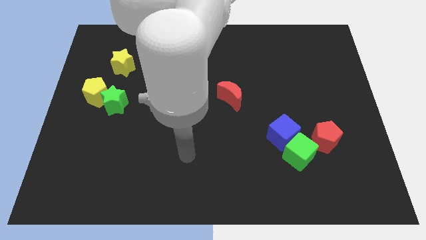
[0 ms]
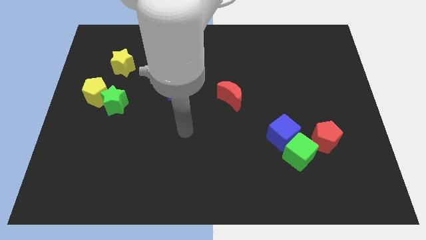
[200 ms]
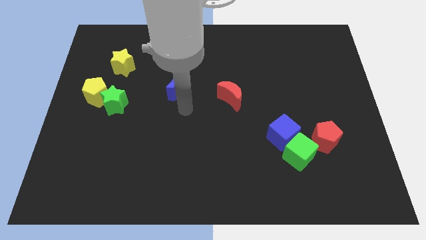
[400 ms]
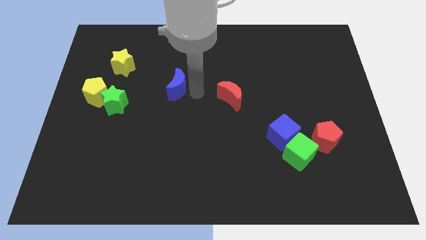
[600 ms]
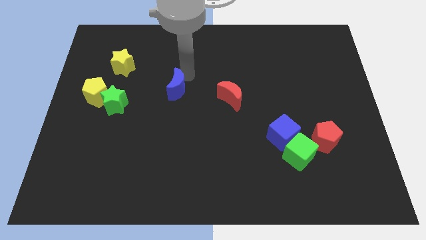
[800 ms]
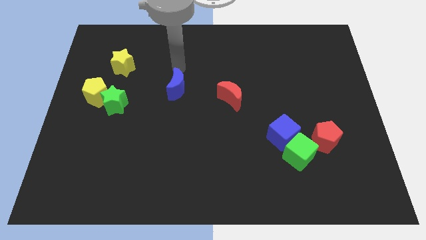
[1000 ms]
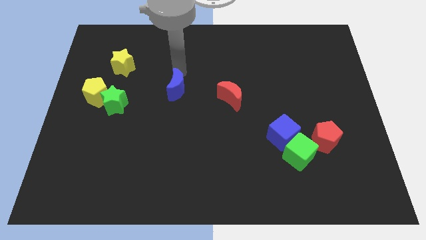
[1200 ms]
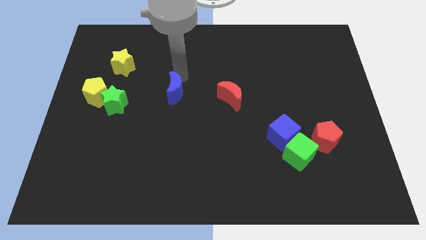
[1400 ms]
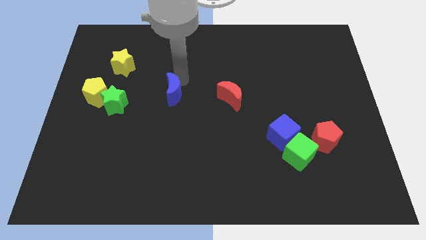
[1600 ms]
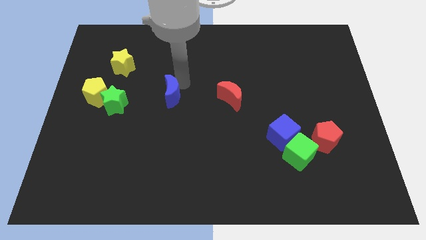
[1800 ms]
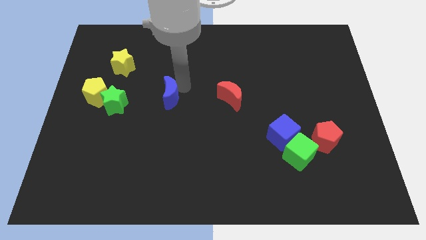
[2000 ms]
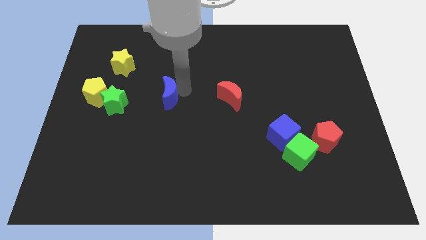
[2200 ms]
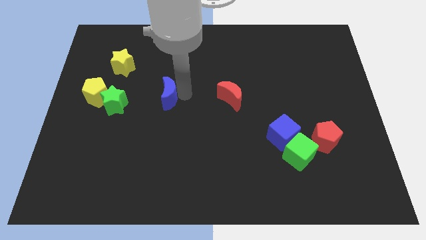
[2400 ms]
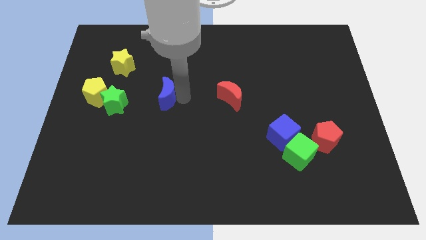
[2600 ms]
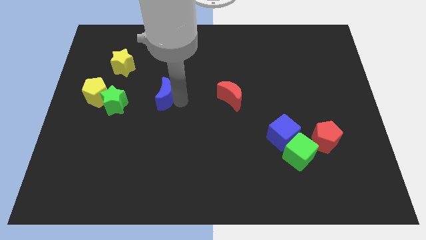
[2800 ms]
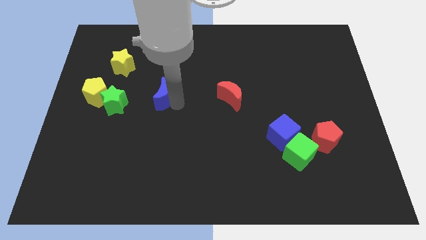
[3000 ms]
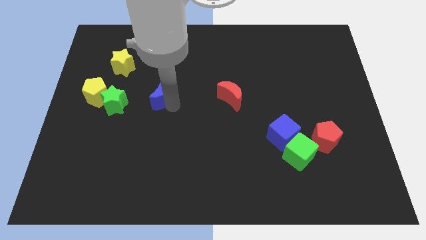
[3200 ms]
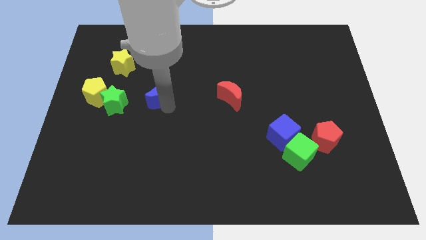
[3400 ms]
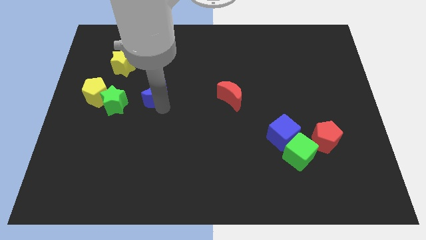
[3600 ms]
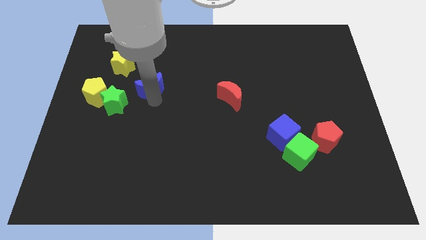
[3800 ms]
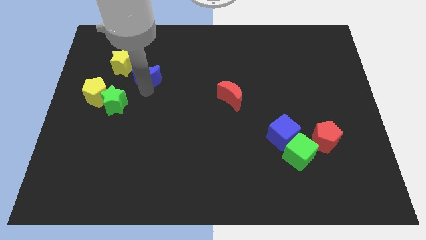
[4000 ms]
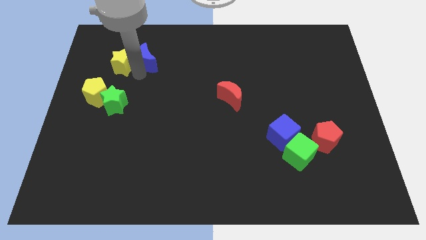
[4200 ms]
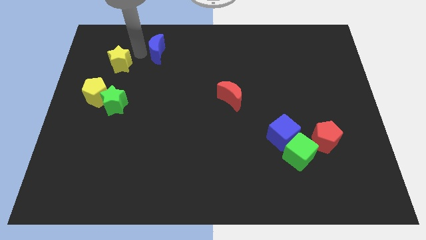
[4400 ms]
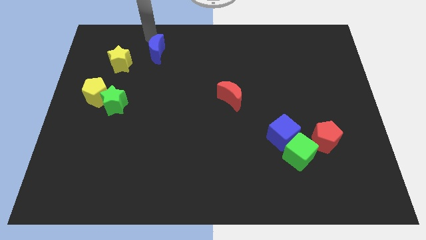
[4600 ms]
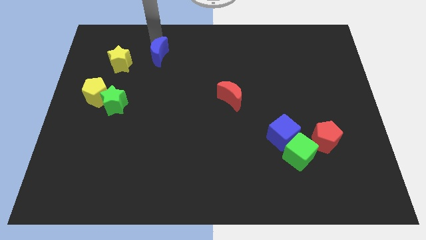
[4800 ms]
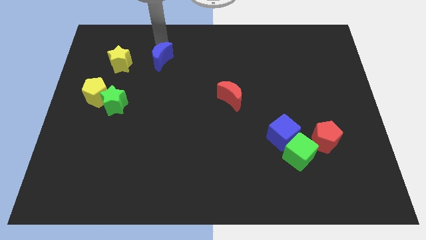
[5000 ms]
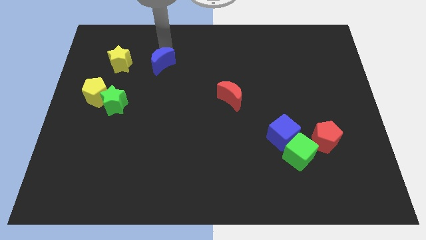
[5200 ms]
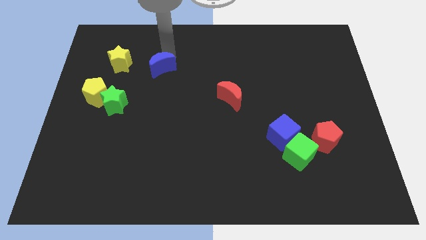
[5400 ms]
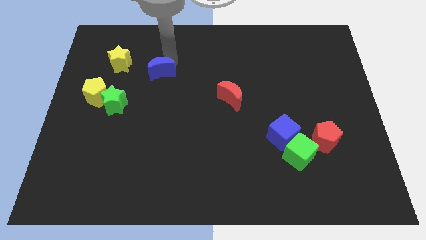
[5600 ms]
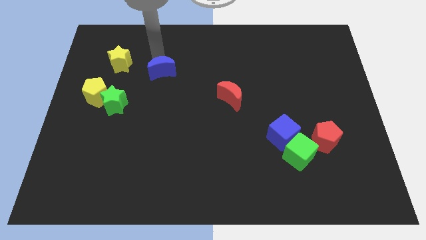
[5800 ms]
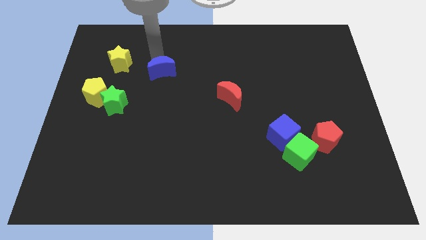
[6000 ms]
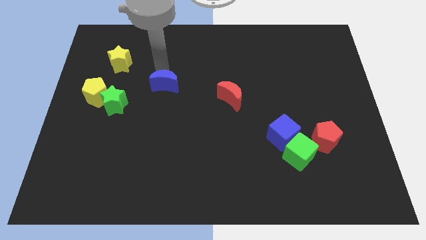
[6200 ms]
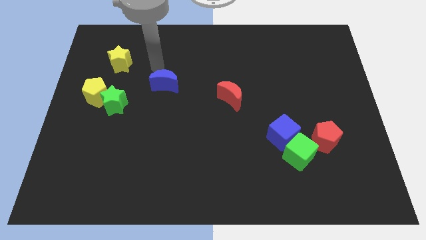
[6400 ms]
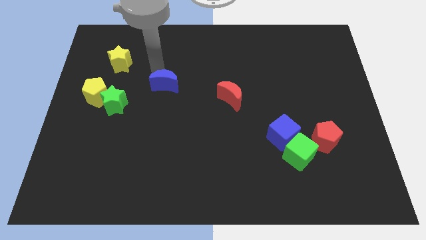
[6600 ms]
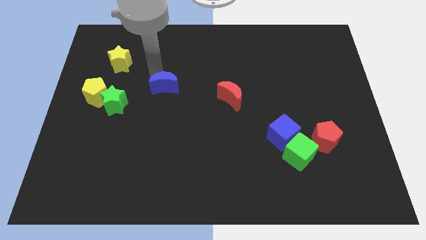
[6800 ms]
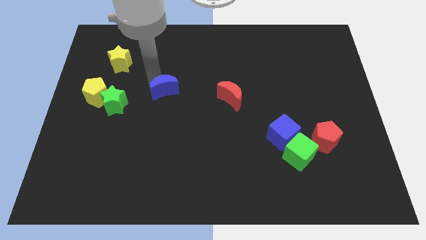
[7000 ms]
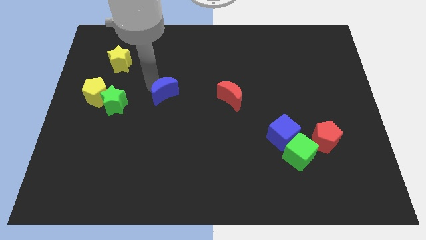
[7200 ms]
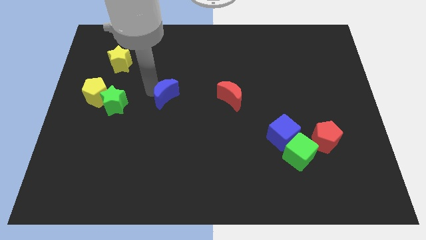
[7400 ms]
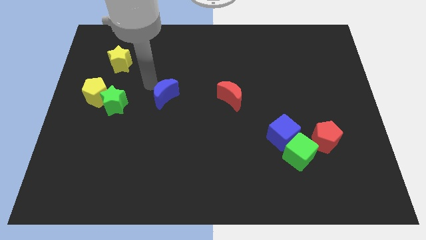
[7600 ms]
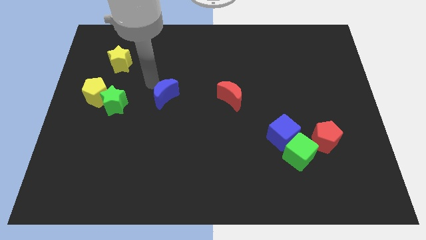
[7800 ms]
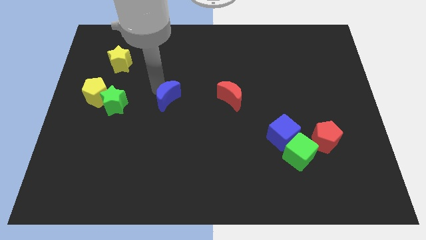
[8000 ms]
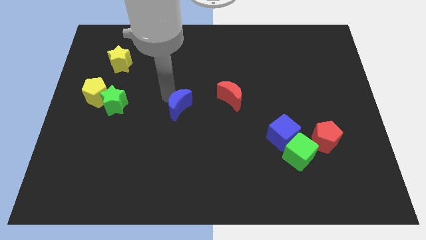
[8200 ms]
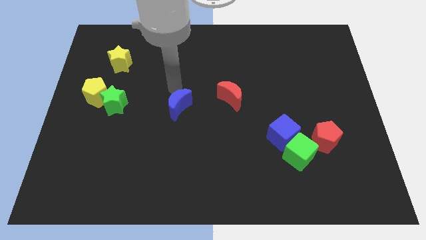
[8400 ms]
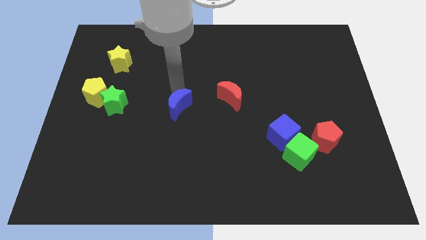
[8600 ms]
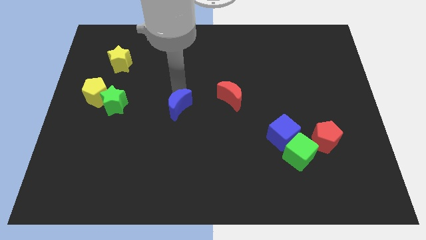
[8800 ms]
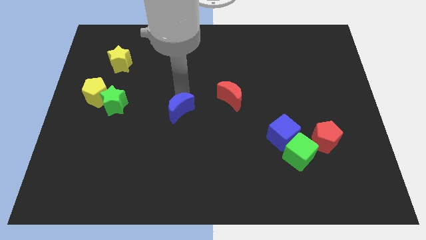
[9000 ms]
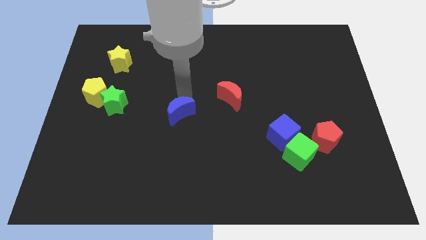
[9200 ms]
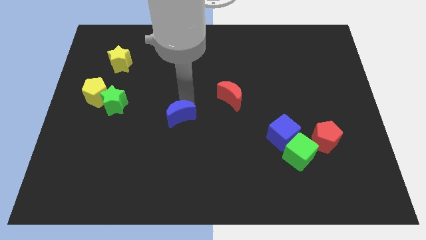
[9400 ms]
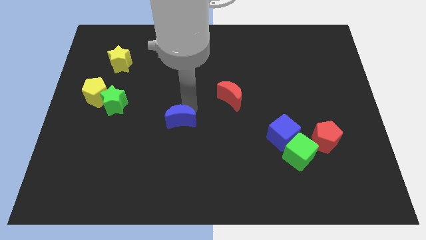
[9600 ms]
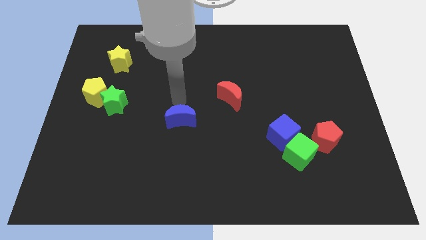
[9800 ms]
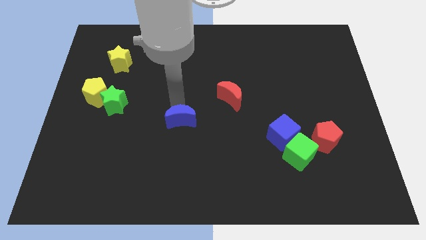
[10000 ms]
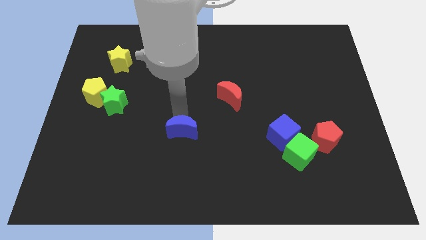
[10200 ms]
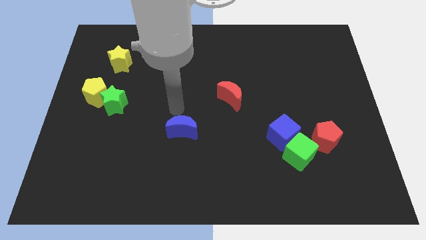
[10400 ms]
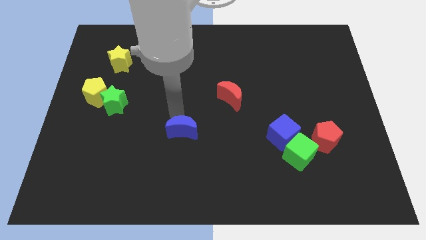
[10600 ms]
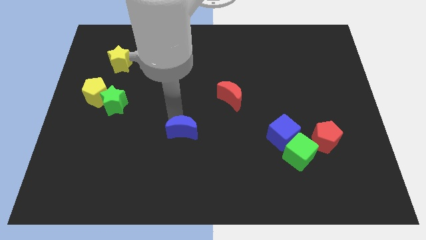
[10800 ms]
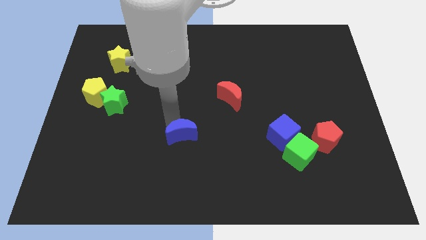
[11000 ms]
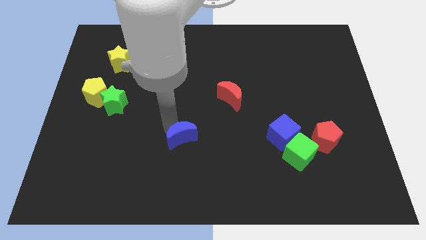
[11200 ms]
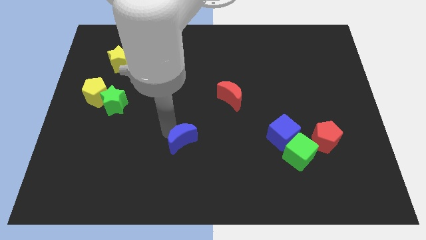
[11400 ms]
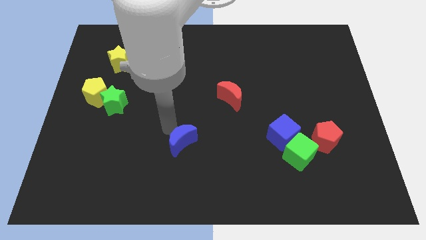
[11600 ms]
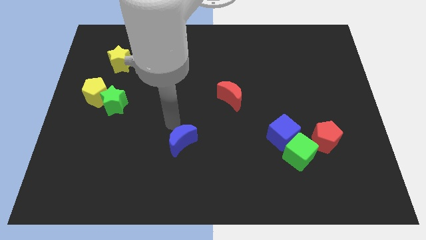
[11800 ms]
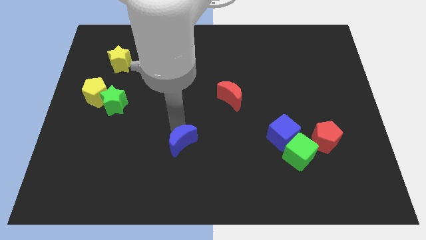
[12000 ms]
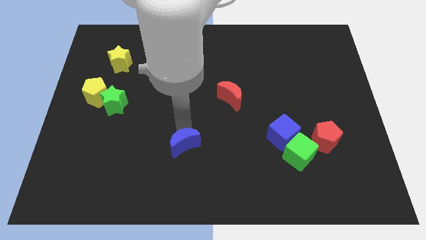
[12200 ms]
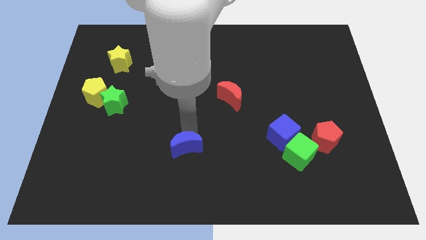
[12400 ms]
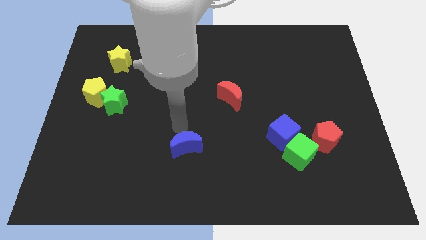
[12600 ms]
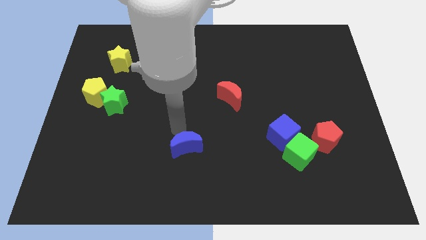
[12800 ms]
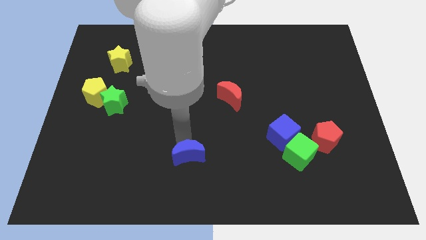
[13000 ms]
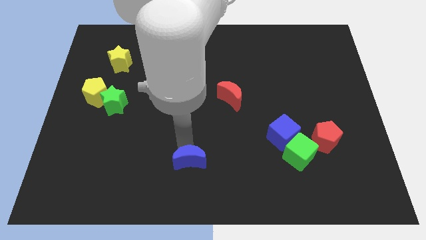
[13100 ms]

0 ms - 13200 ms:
push the blue moon to the bottom side
